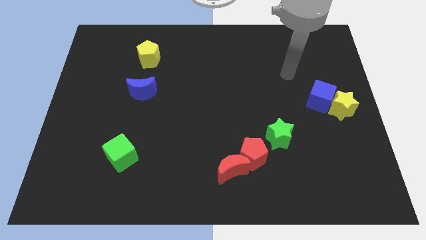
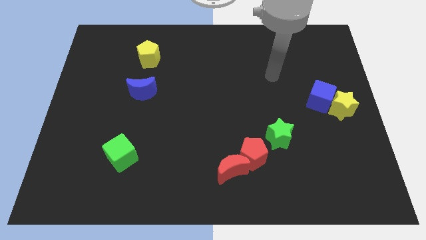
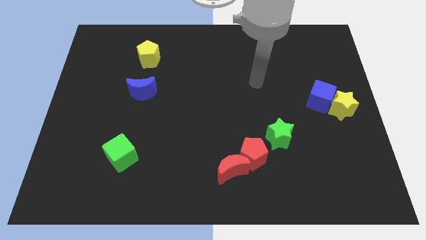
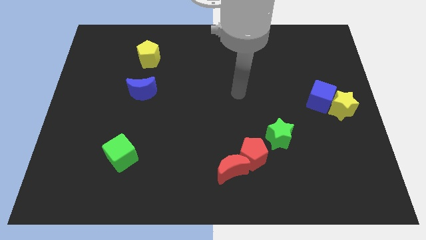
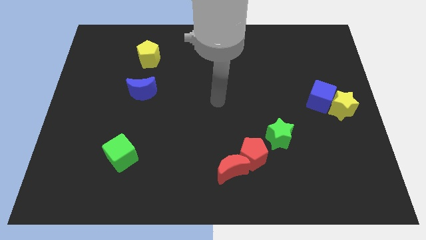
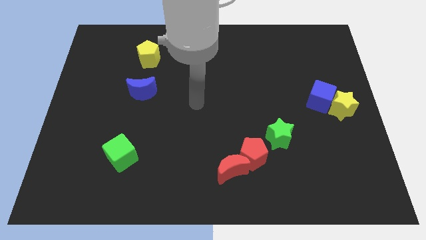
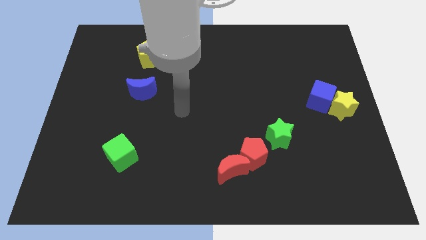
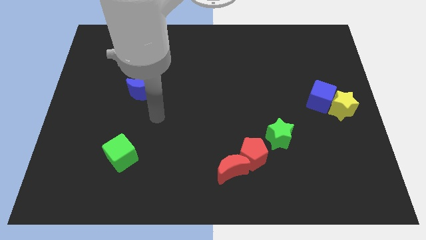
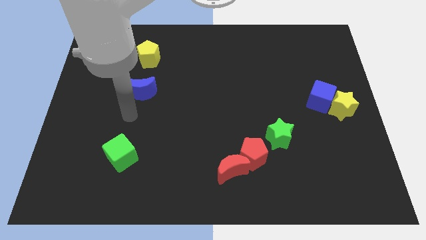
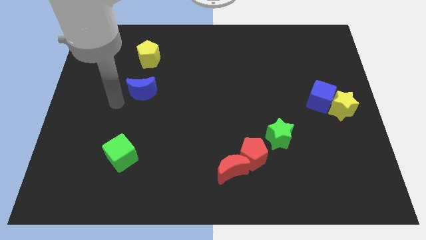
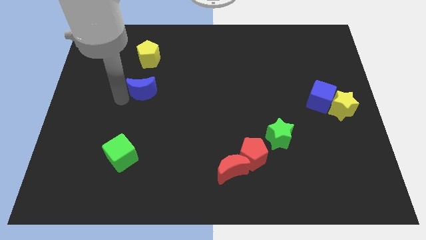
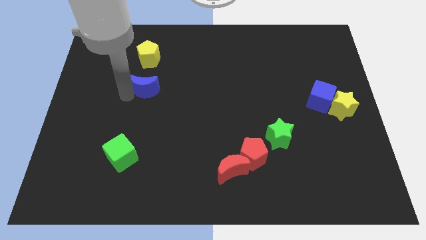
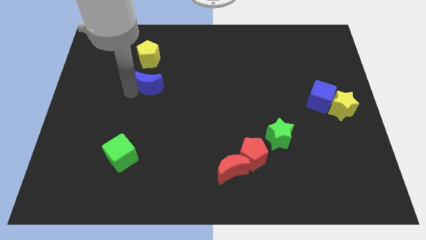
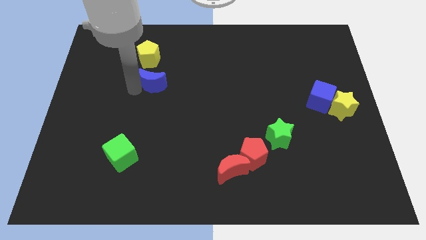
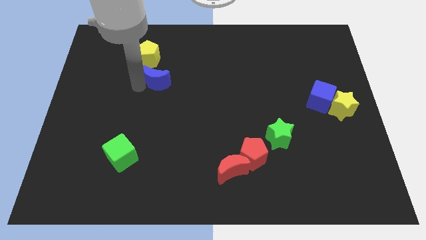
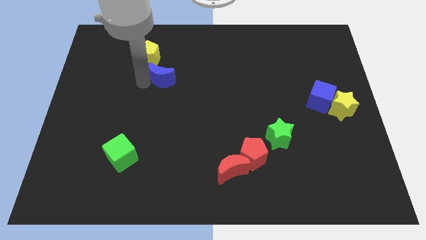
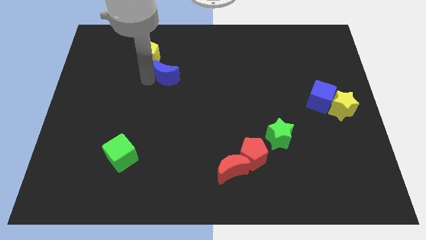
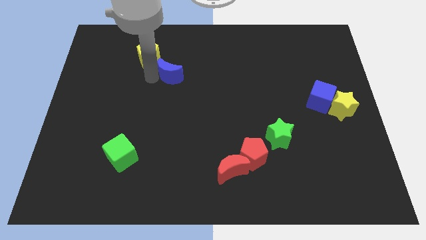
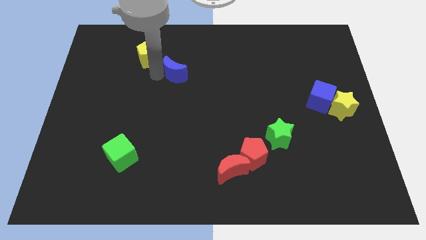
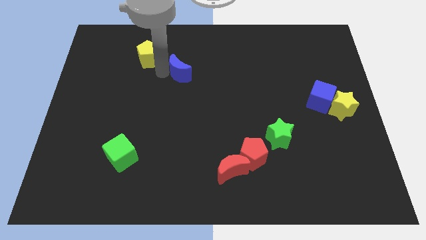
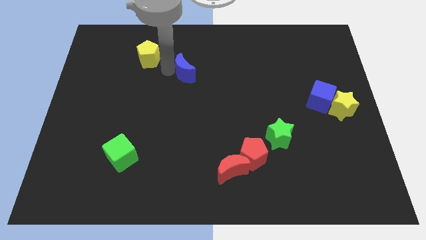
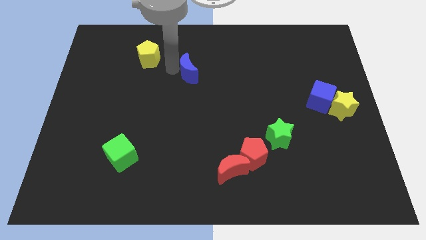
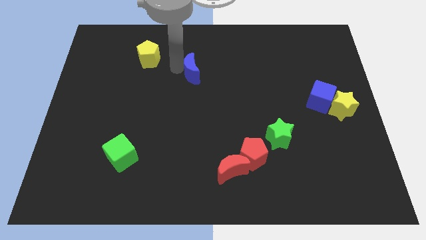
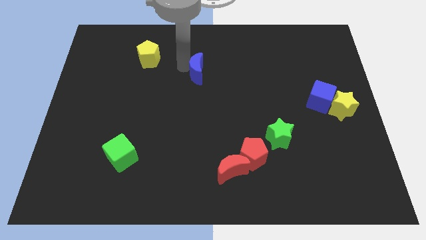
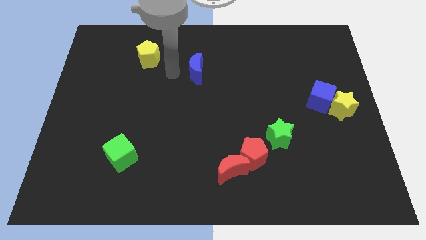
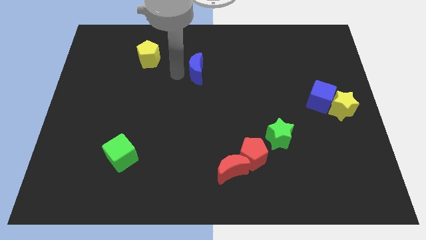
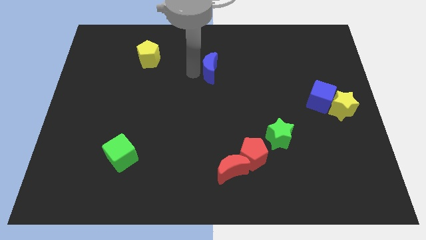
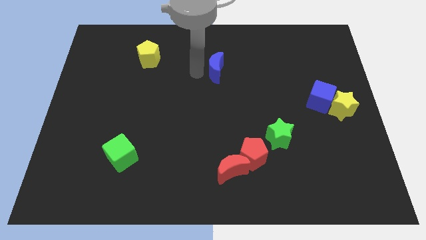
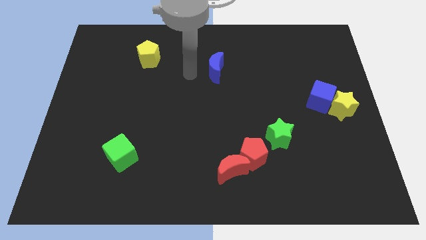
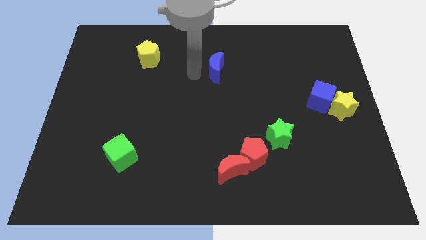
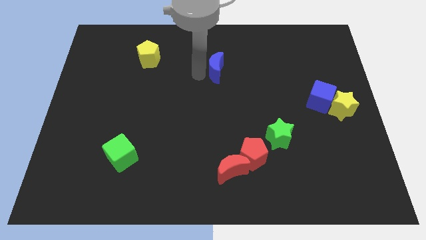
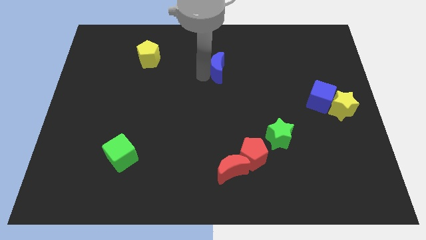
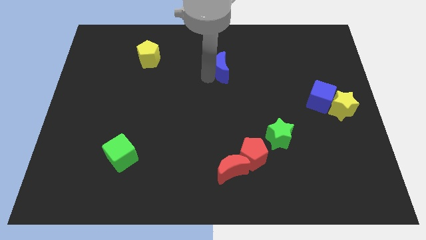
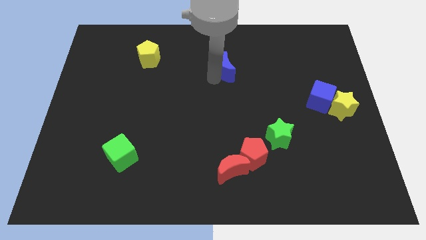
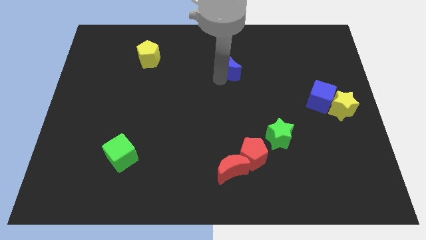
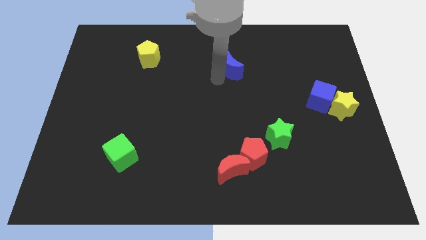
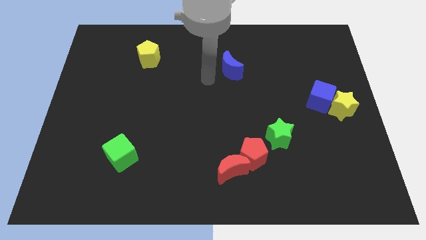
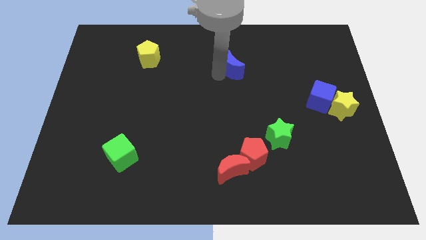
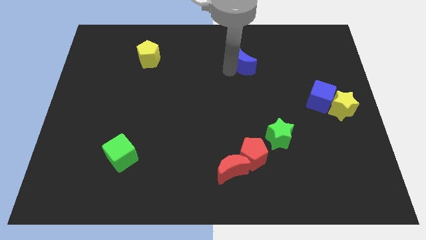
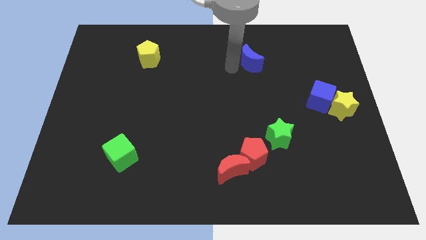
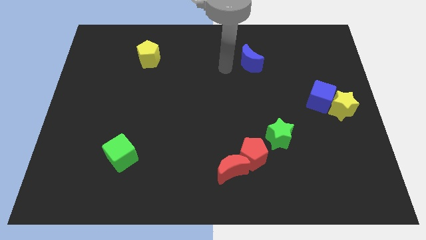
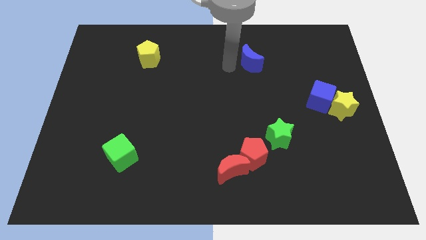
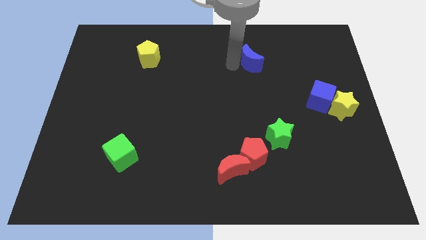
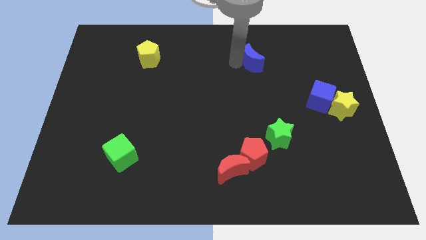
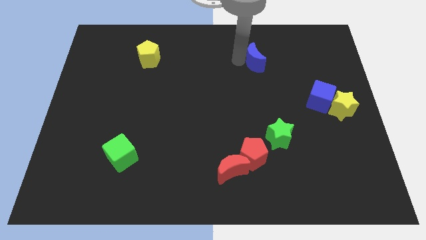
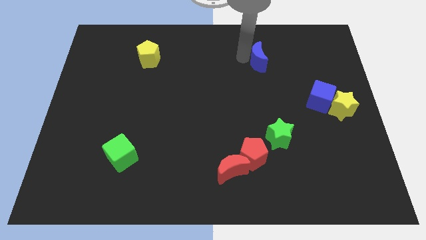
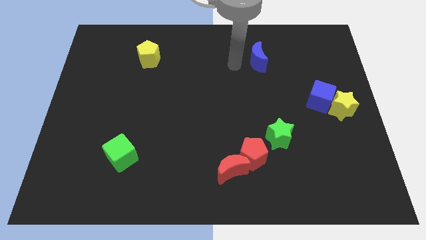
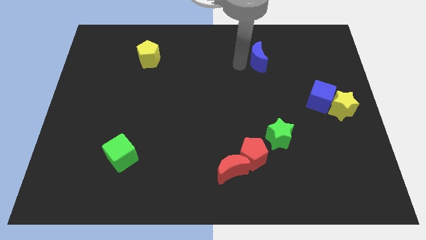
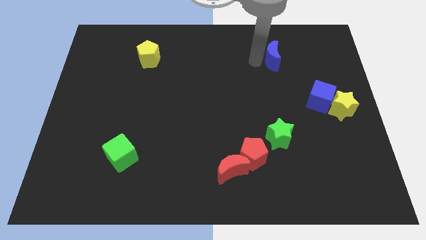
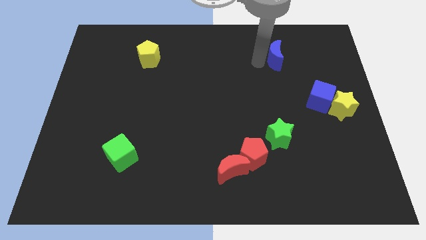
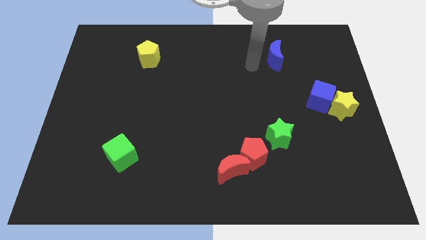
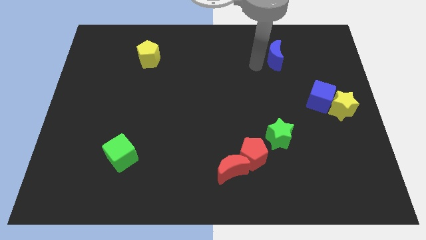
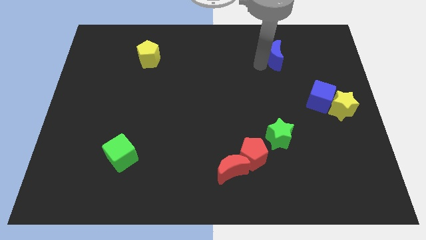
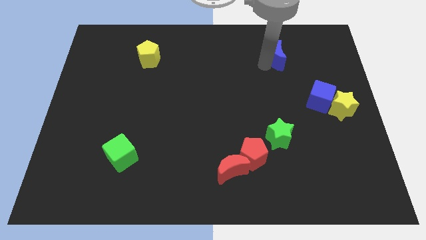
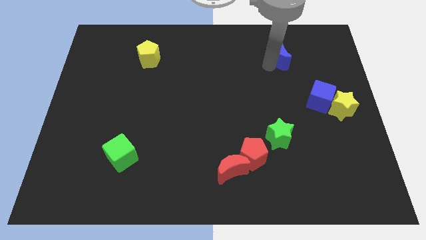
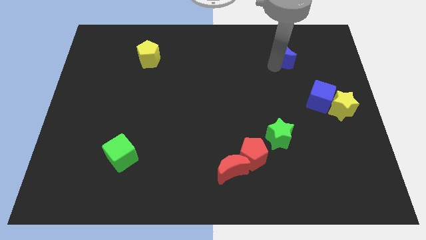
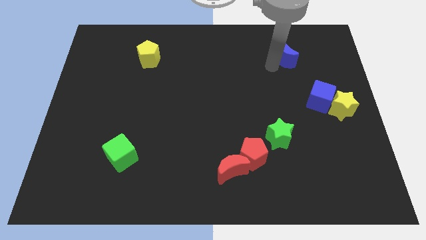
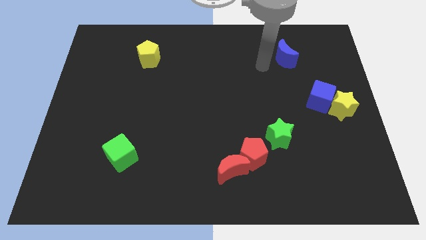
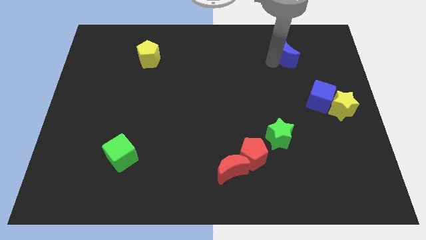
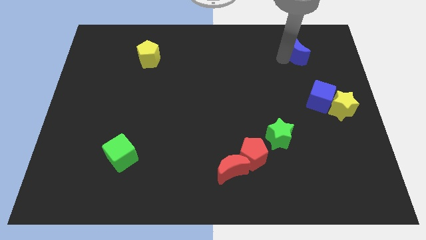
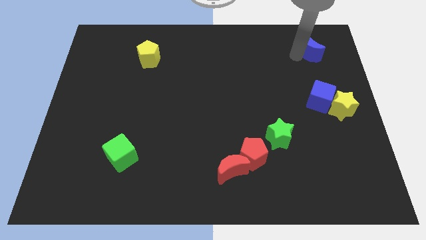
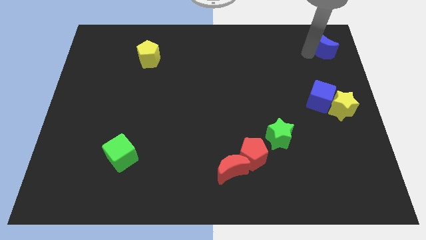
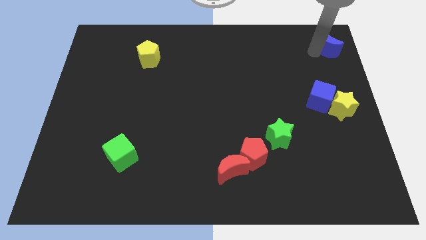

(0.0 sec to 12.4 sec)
slide the blue moon to the top right of the board

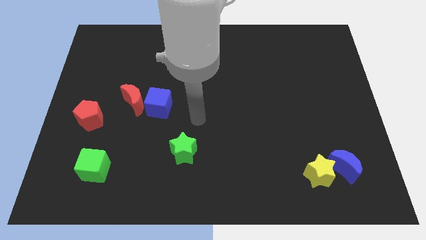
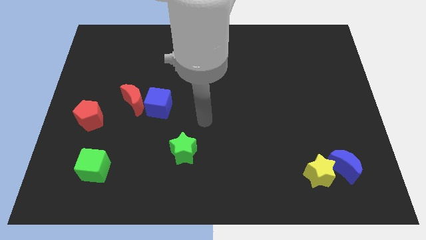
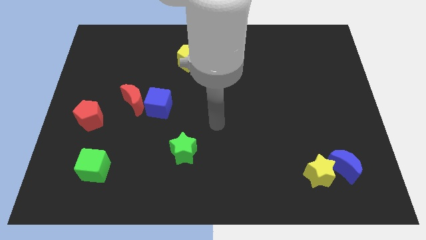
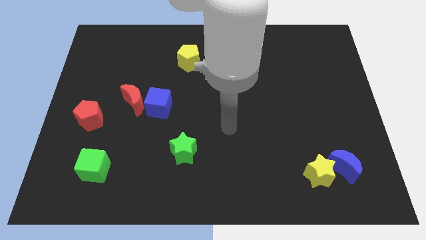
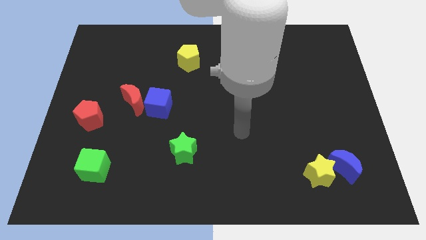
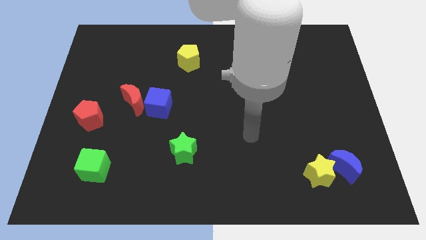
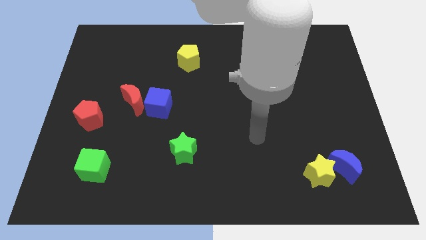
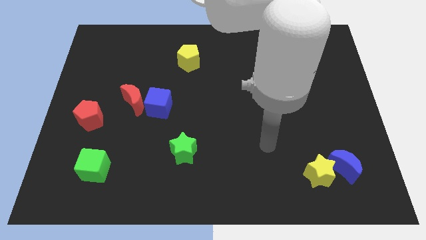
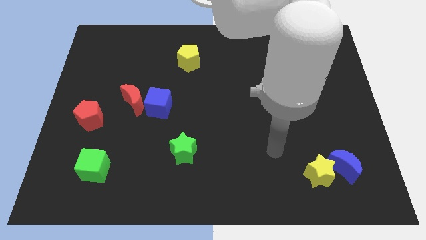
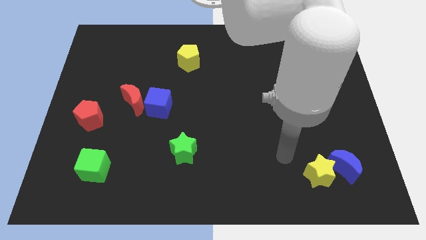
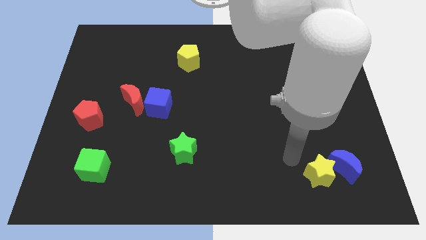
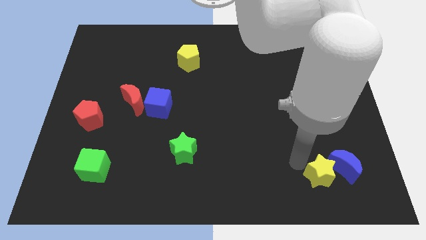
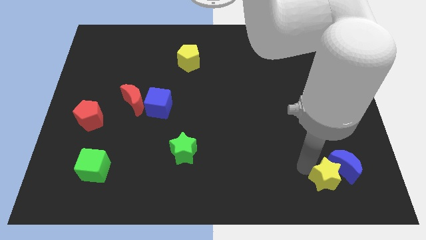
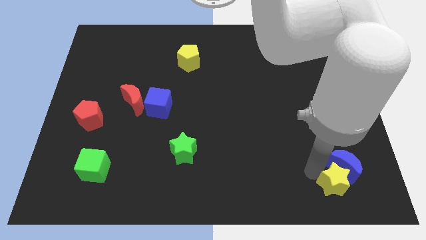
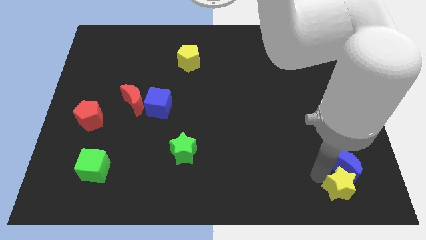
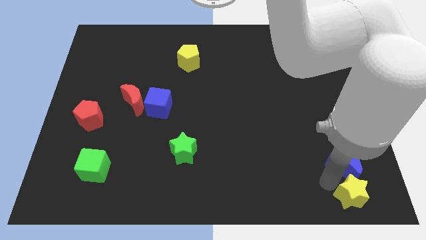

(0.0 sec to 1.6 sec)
put the yellow star to the bottom right corner
